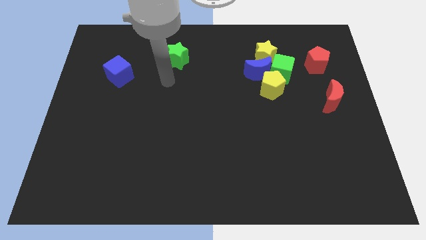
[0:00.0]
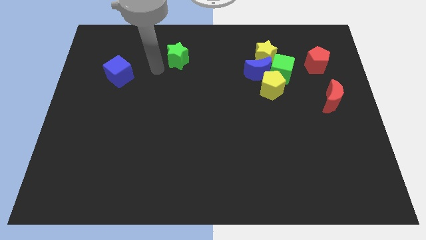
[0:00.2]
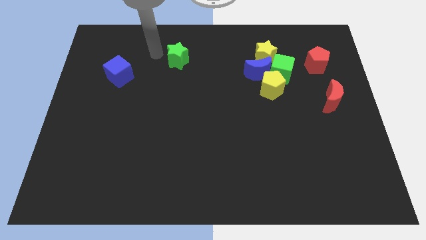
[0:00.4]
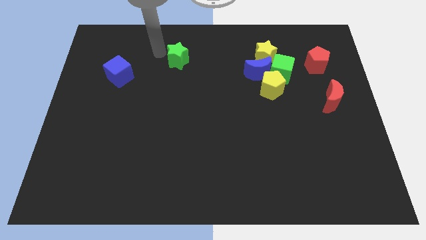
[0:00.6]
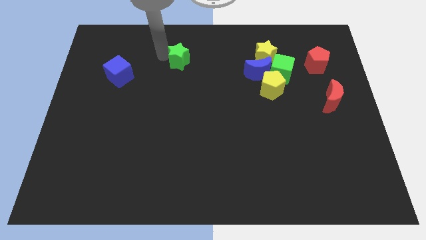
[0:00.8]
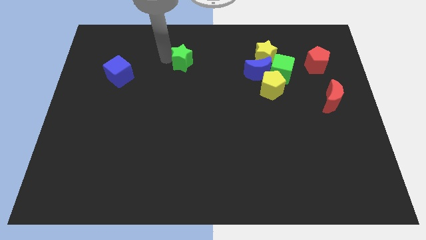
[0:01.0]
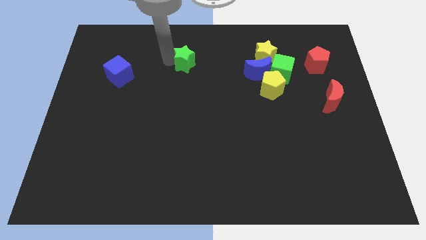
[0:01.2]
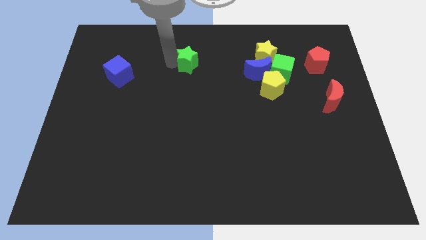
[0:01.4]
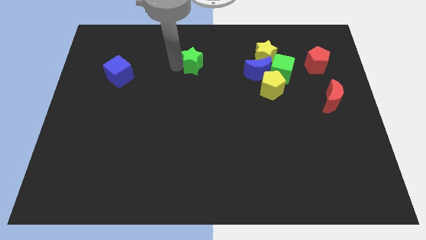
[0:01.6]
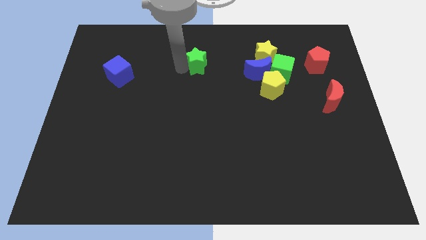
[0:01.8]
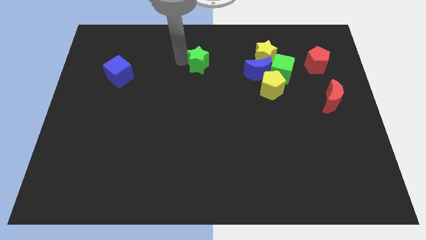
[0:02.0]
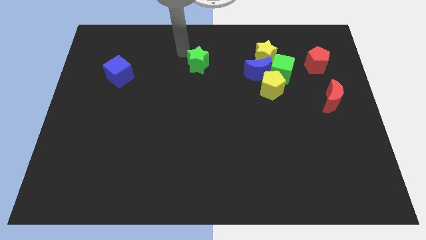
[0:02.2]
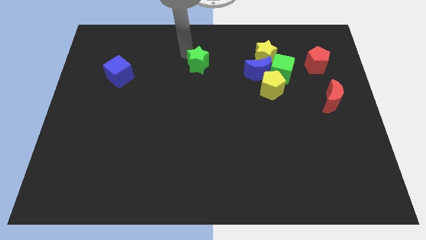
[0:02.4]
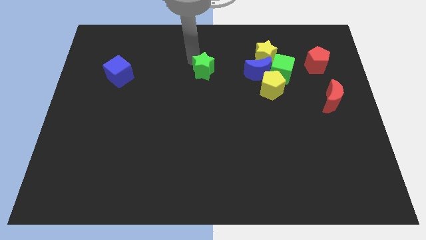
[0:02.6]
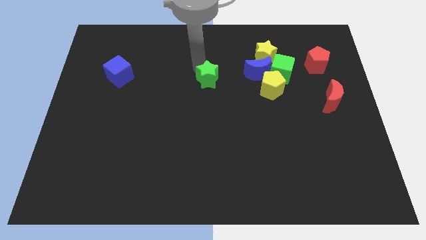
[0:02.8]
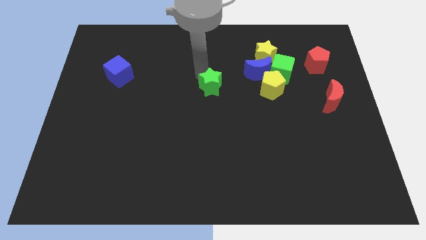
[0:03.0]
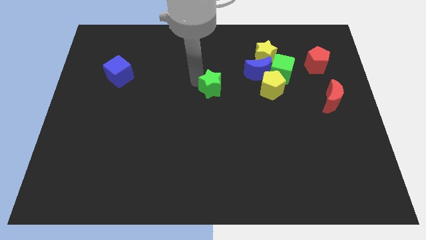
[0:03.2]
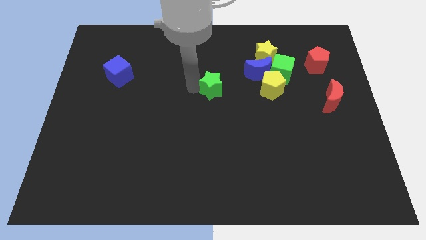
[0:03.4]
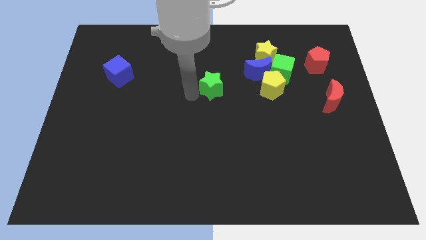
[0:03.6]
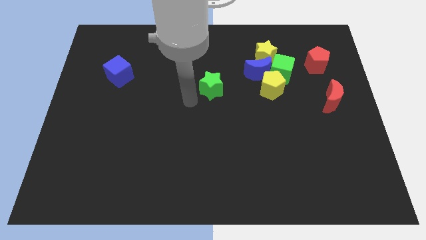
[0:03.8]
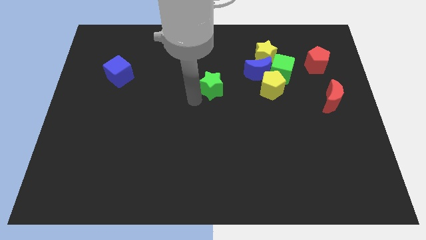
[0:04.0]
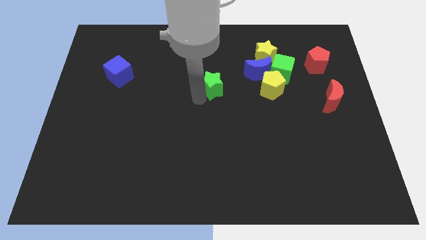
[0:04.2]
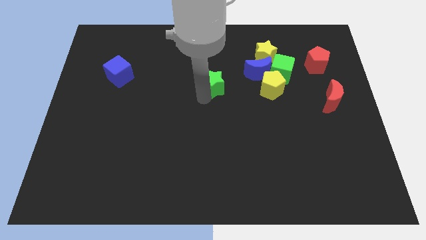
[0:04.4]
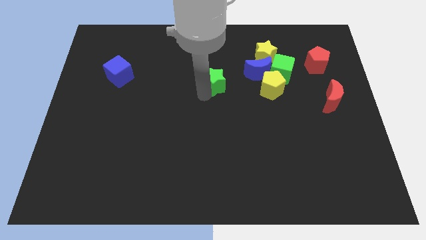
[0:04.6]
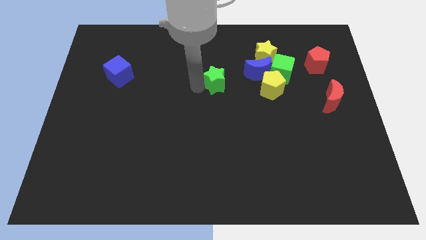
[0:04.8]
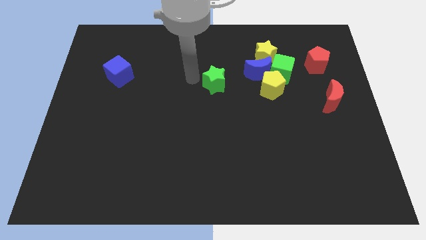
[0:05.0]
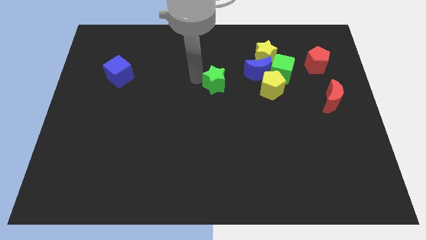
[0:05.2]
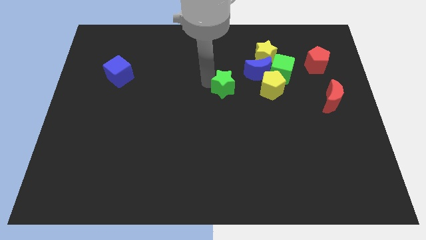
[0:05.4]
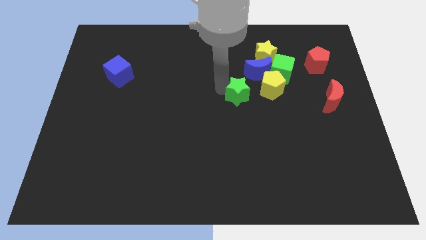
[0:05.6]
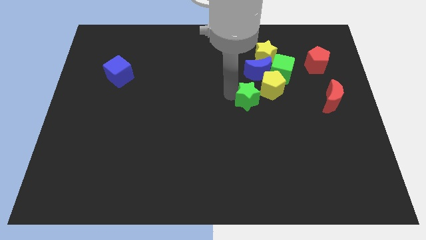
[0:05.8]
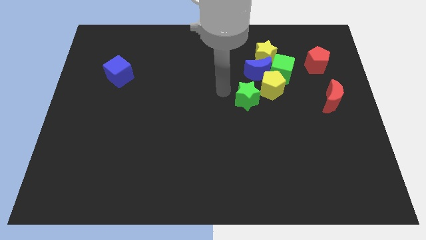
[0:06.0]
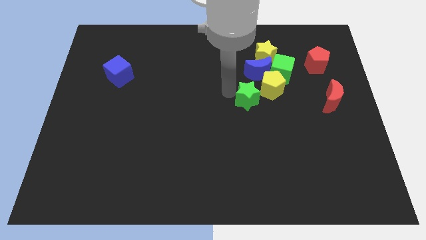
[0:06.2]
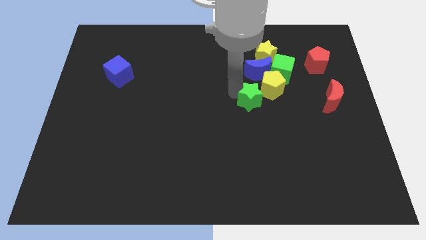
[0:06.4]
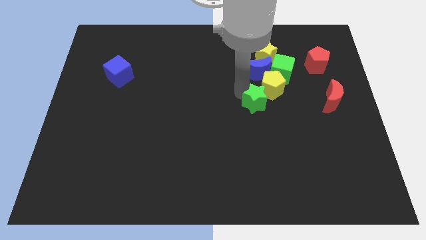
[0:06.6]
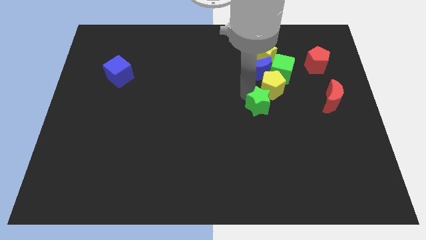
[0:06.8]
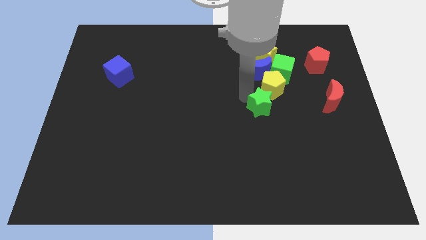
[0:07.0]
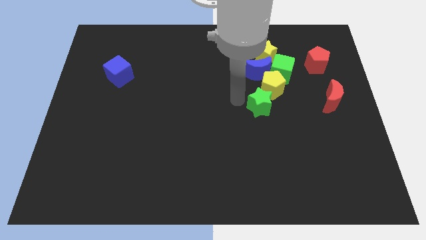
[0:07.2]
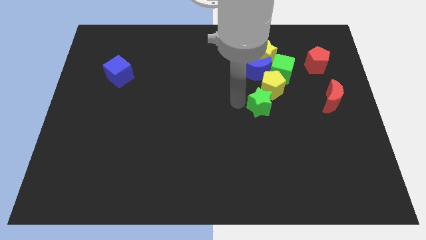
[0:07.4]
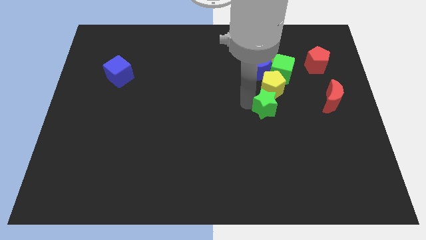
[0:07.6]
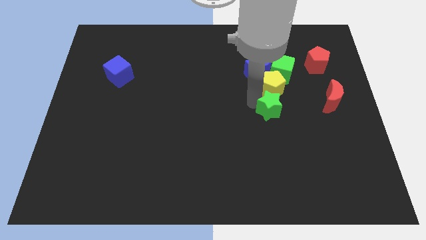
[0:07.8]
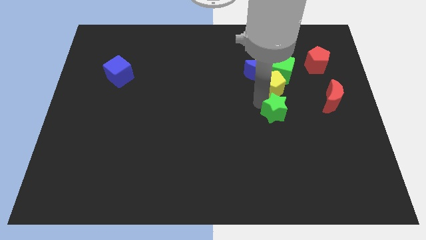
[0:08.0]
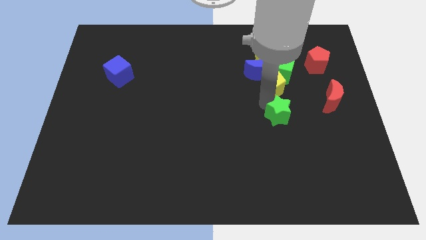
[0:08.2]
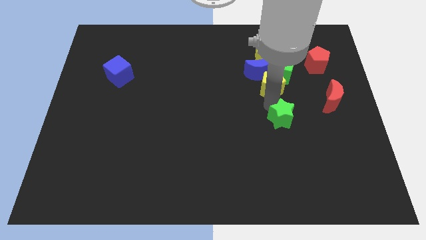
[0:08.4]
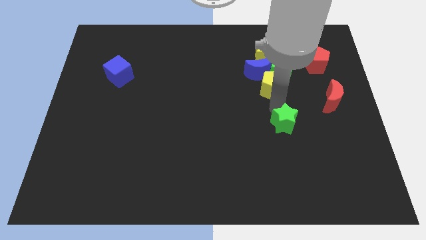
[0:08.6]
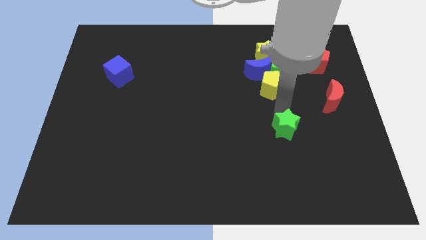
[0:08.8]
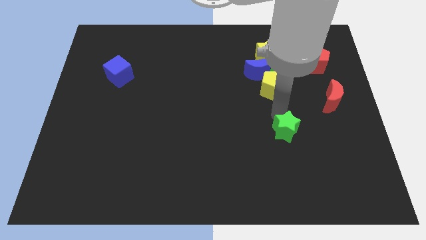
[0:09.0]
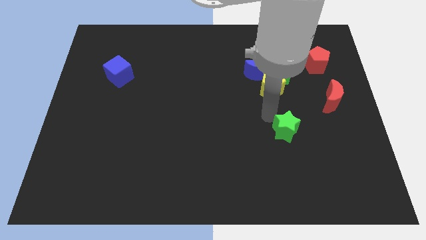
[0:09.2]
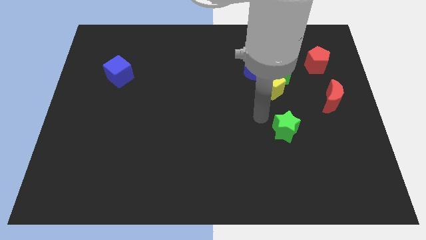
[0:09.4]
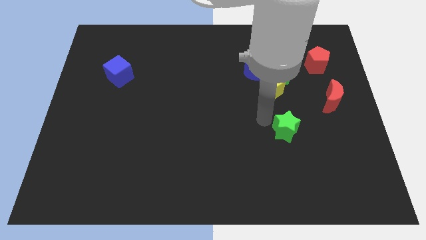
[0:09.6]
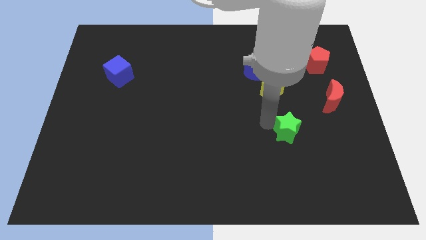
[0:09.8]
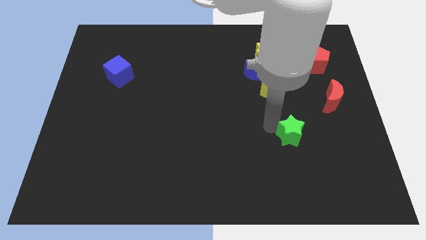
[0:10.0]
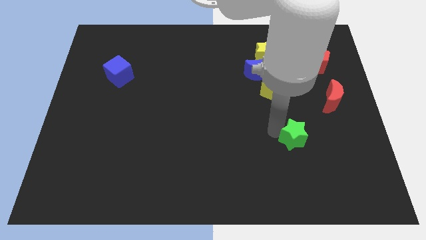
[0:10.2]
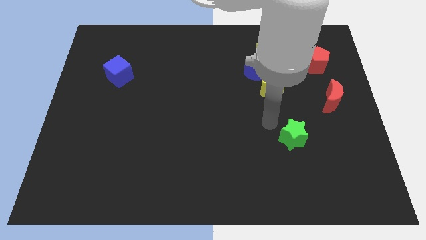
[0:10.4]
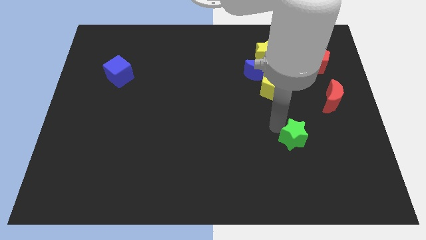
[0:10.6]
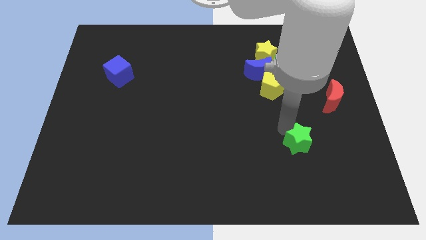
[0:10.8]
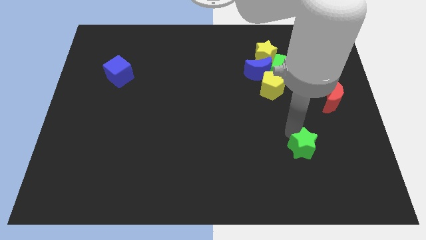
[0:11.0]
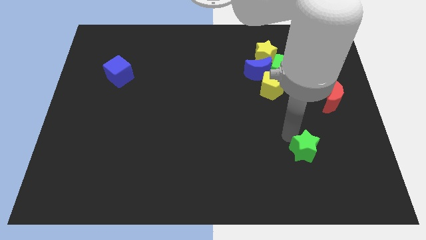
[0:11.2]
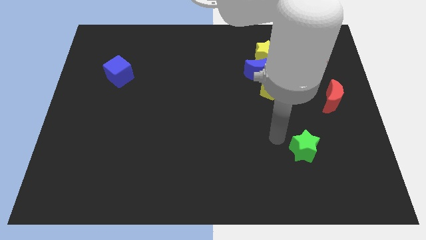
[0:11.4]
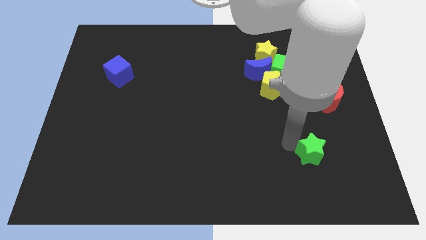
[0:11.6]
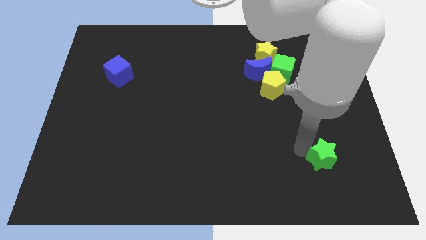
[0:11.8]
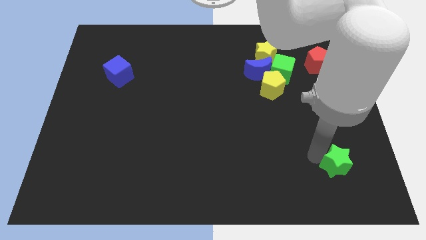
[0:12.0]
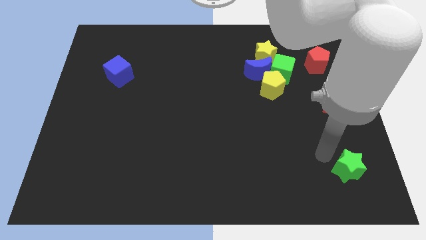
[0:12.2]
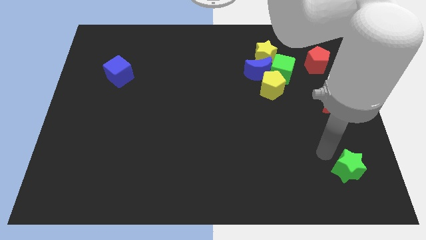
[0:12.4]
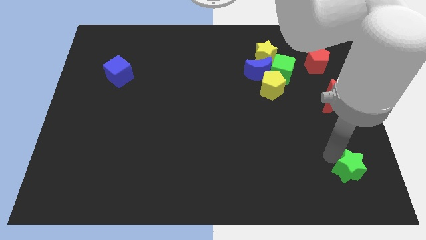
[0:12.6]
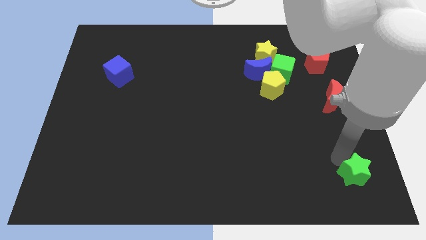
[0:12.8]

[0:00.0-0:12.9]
slide the green star to the lower right corner

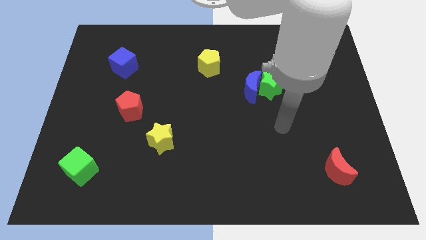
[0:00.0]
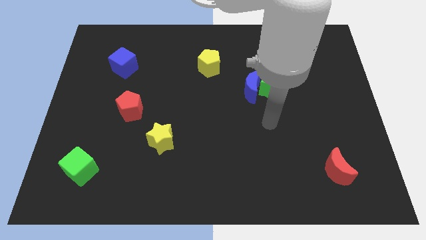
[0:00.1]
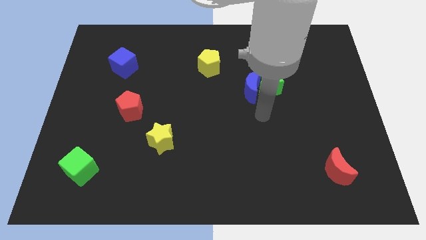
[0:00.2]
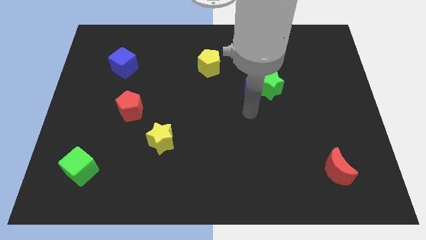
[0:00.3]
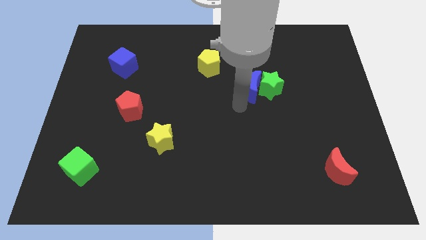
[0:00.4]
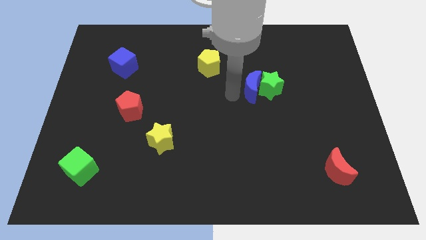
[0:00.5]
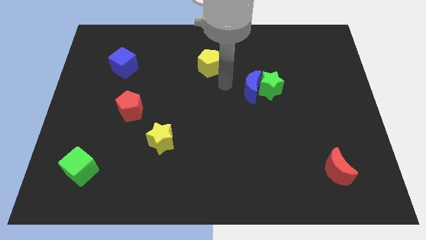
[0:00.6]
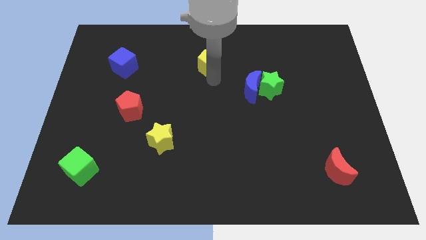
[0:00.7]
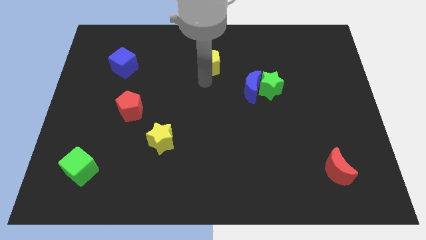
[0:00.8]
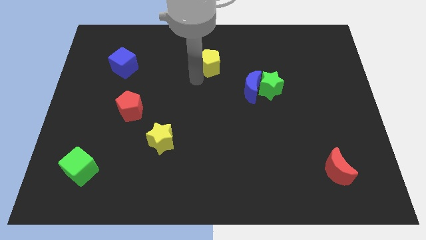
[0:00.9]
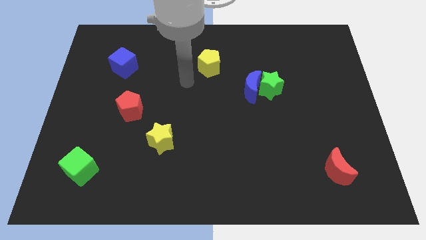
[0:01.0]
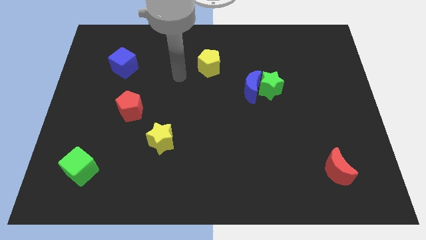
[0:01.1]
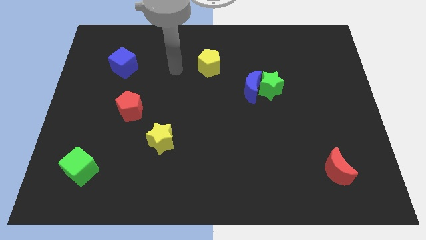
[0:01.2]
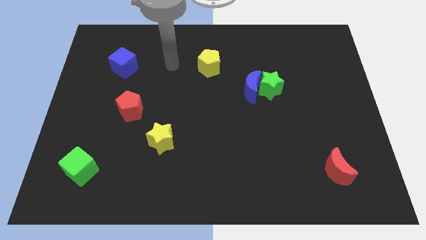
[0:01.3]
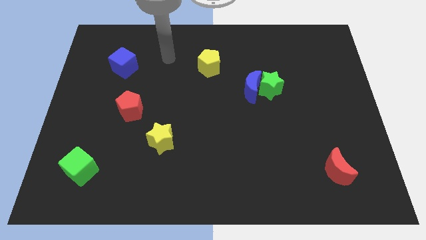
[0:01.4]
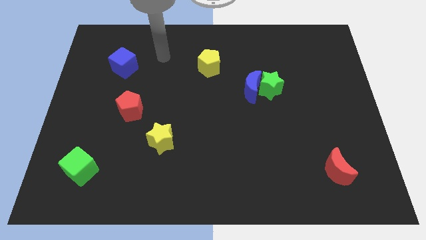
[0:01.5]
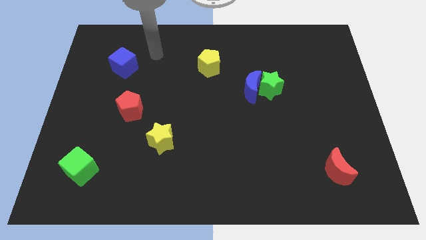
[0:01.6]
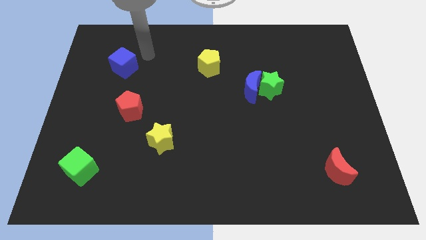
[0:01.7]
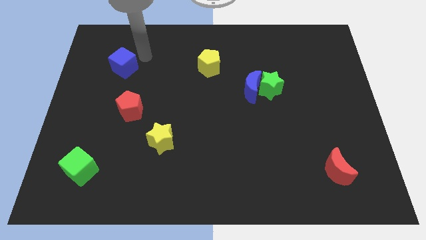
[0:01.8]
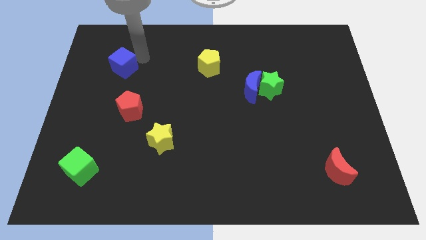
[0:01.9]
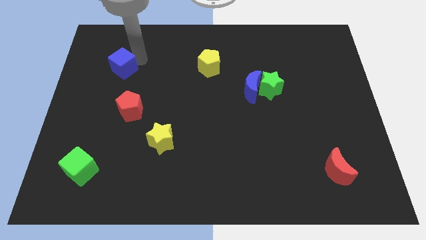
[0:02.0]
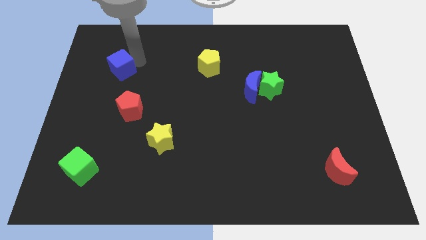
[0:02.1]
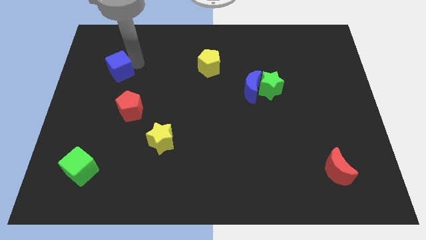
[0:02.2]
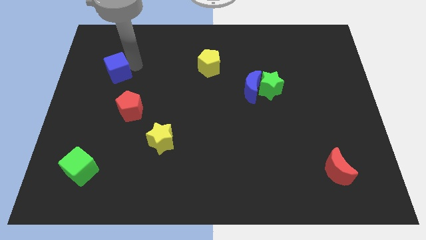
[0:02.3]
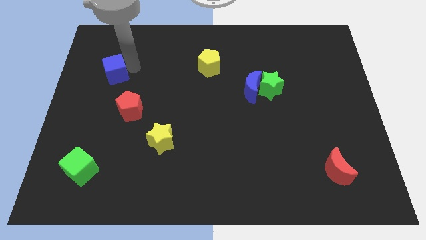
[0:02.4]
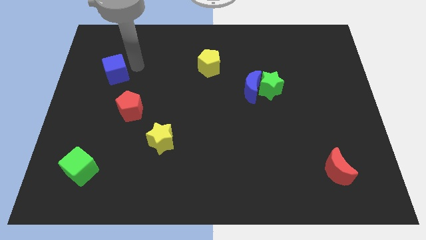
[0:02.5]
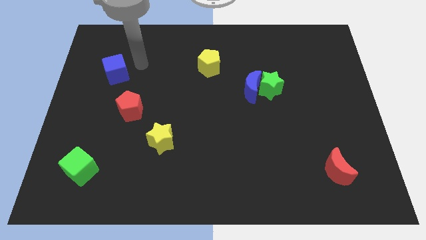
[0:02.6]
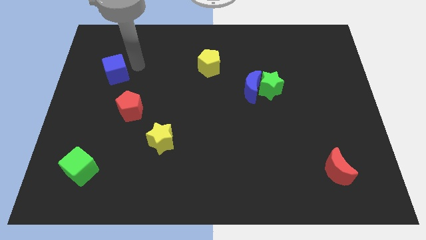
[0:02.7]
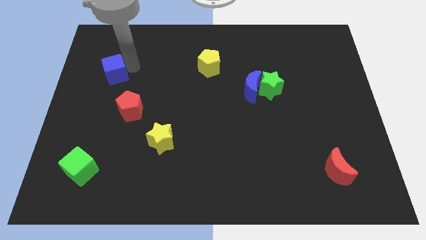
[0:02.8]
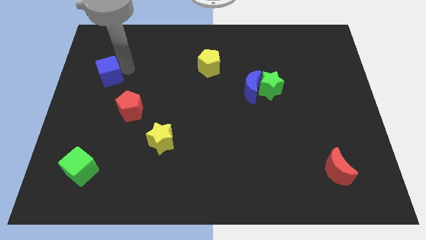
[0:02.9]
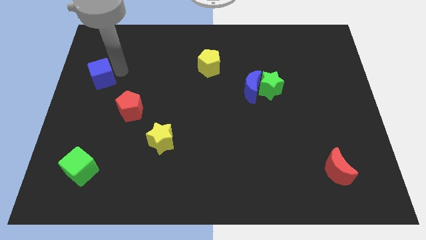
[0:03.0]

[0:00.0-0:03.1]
slide the blue cube to the left side of the board
